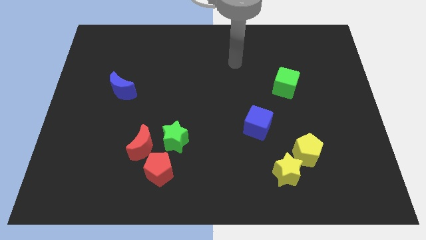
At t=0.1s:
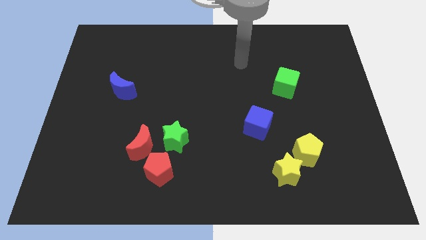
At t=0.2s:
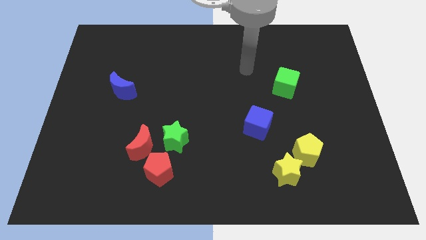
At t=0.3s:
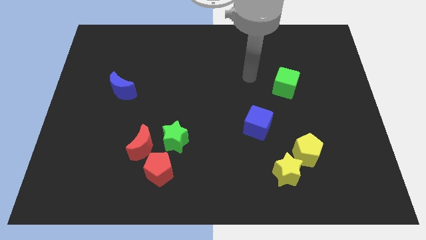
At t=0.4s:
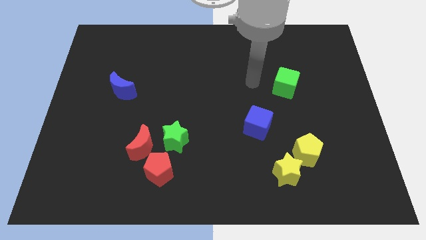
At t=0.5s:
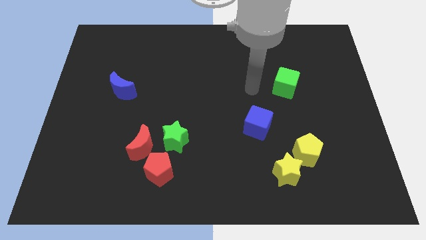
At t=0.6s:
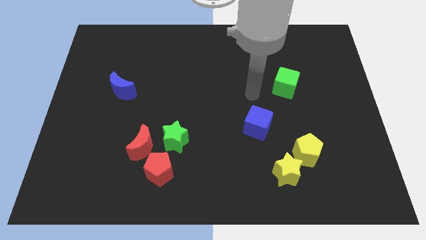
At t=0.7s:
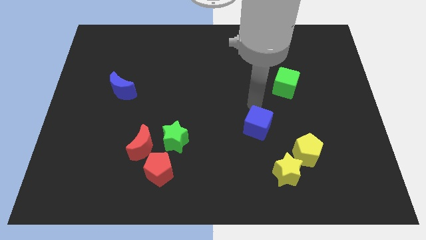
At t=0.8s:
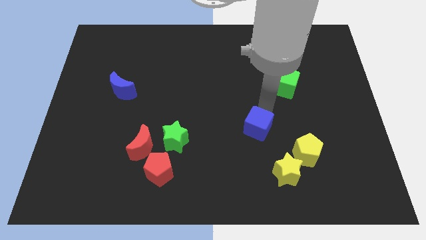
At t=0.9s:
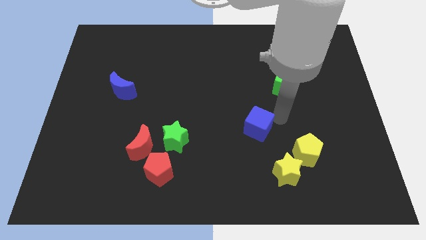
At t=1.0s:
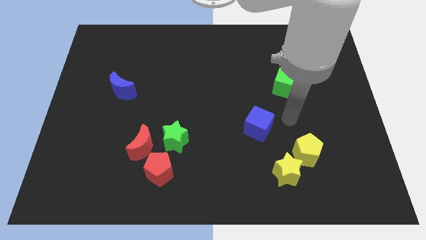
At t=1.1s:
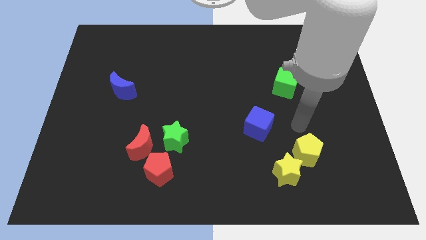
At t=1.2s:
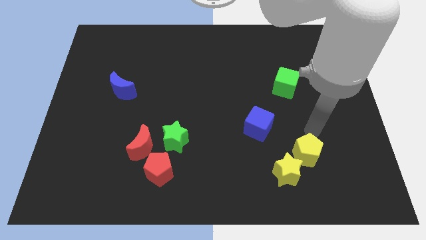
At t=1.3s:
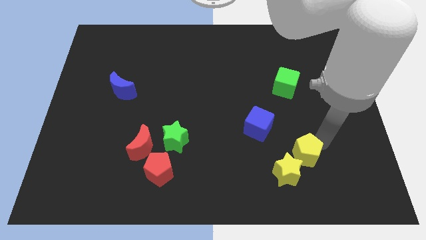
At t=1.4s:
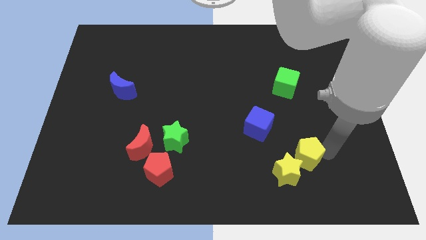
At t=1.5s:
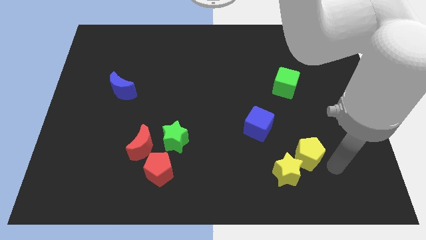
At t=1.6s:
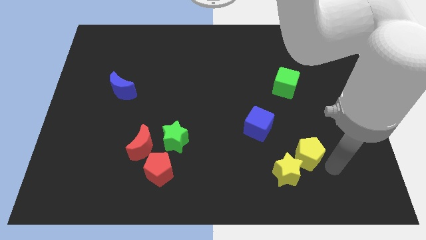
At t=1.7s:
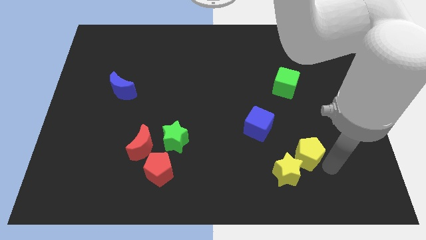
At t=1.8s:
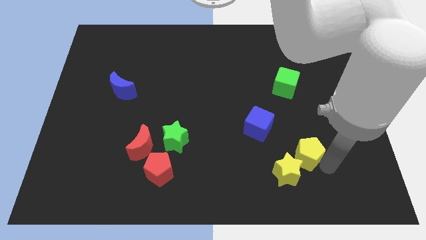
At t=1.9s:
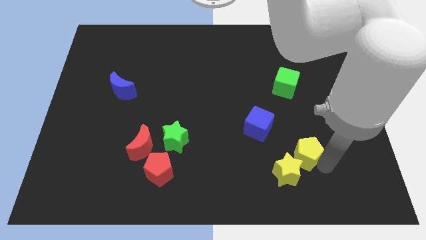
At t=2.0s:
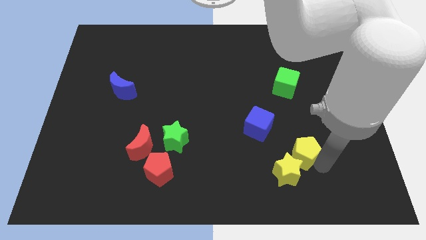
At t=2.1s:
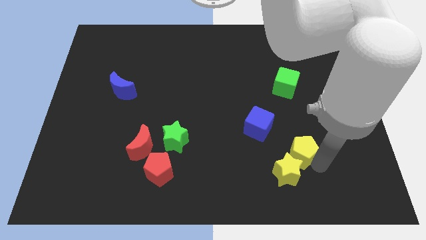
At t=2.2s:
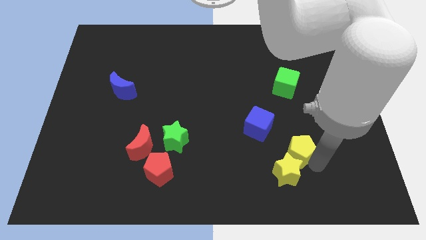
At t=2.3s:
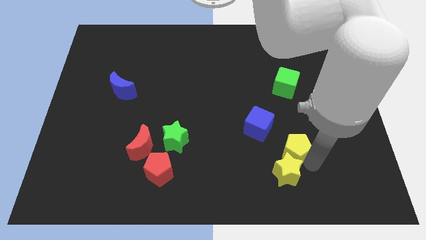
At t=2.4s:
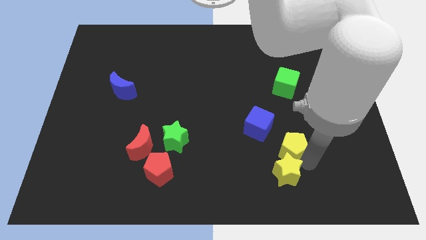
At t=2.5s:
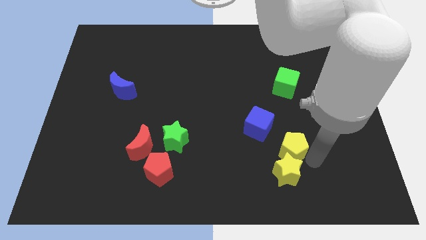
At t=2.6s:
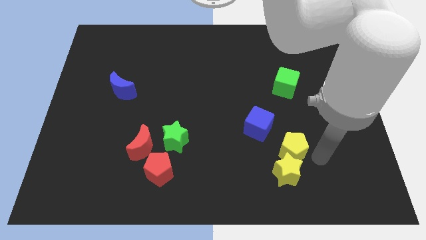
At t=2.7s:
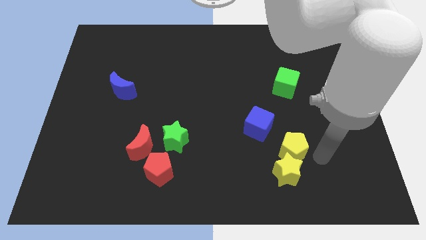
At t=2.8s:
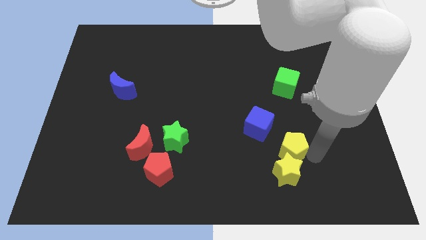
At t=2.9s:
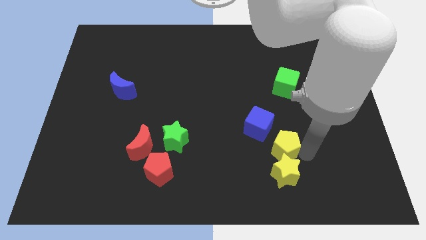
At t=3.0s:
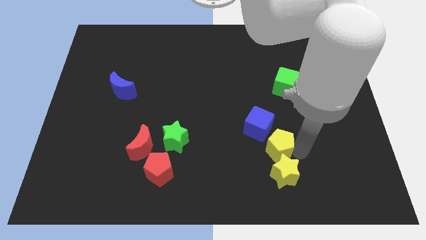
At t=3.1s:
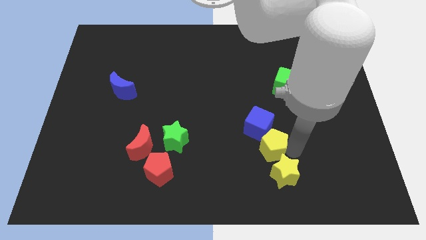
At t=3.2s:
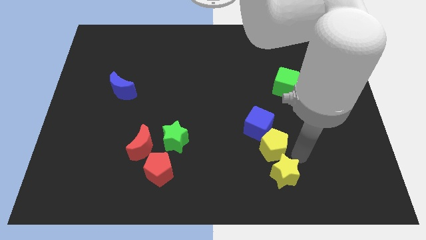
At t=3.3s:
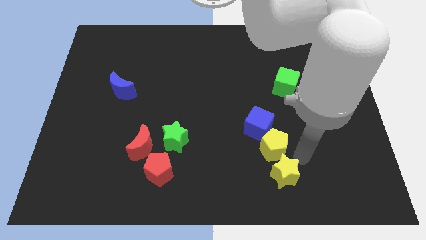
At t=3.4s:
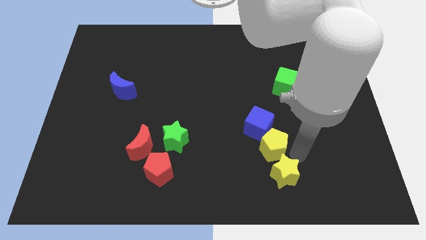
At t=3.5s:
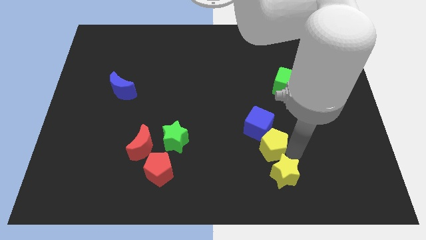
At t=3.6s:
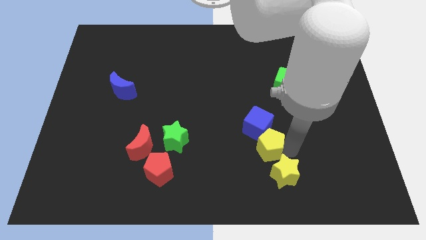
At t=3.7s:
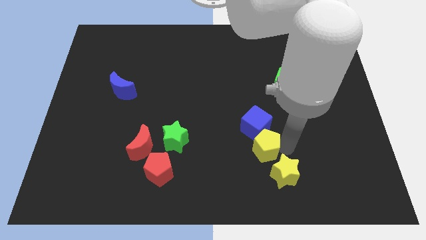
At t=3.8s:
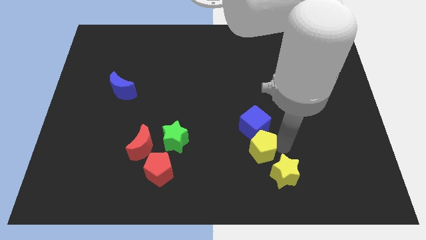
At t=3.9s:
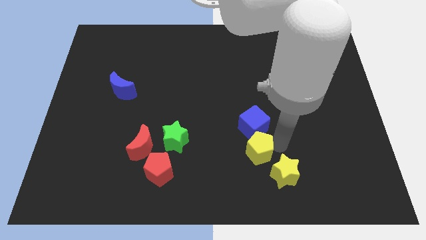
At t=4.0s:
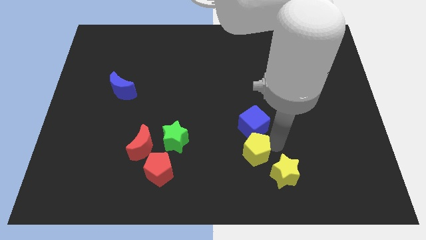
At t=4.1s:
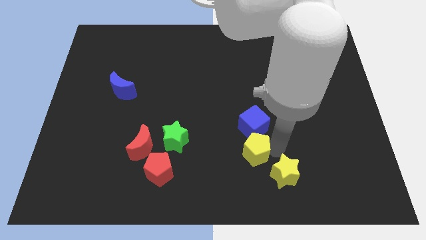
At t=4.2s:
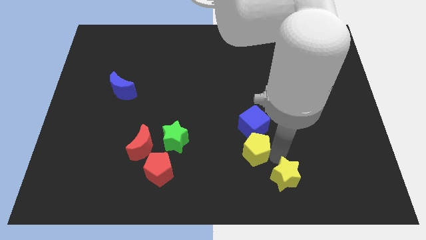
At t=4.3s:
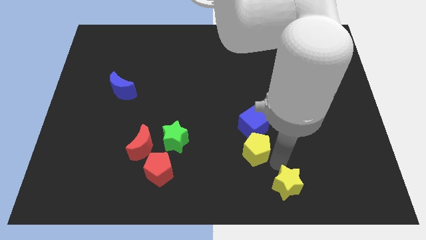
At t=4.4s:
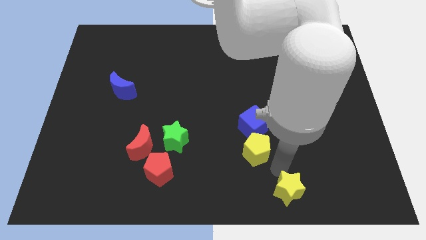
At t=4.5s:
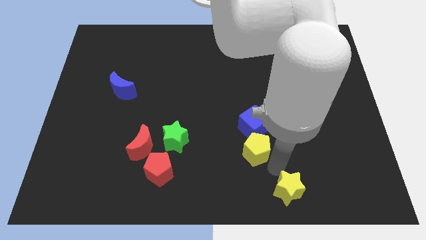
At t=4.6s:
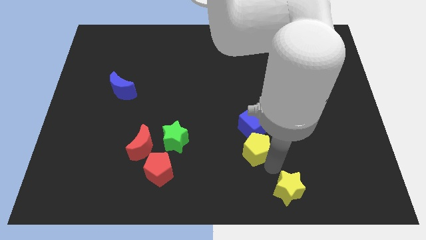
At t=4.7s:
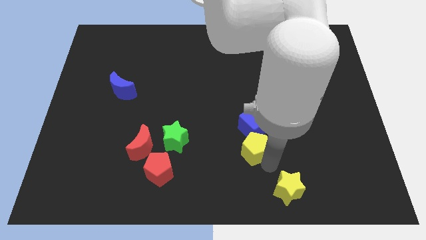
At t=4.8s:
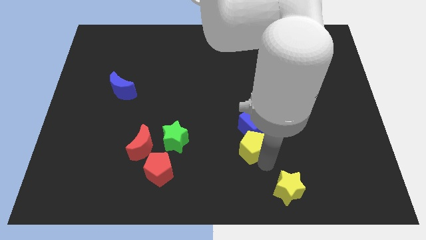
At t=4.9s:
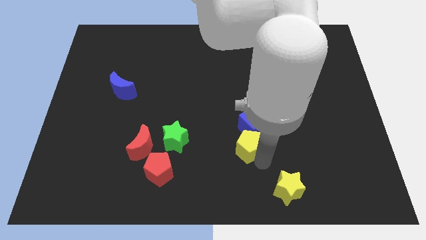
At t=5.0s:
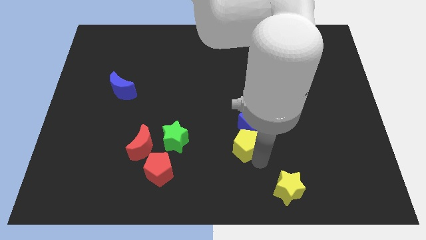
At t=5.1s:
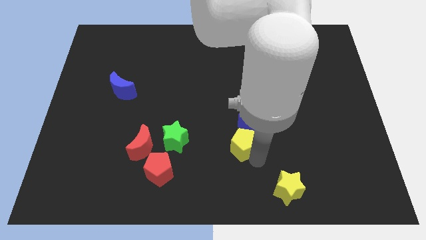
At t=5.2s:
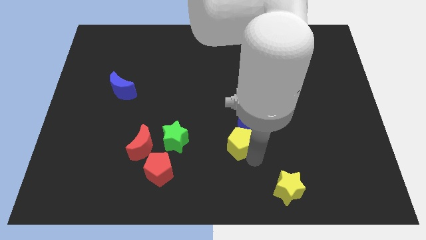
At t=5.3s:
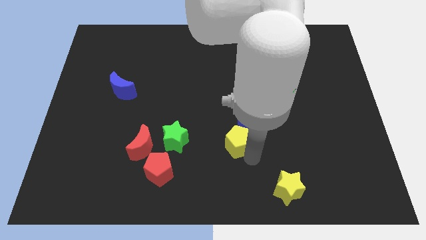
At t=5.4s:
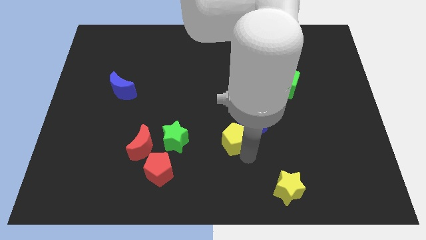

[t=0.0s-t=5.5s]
put the yellow pentagon left of the blue cube

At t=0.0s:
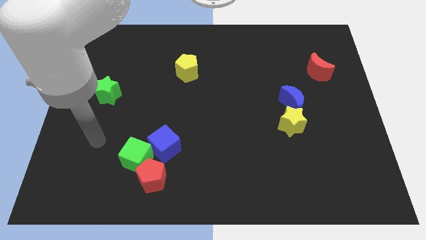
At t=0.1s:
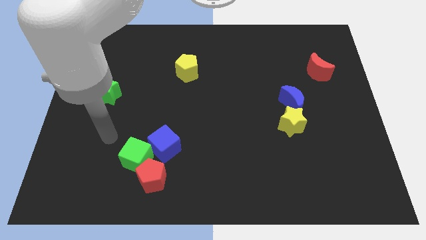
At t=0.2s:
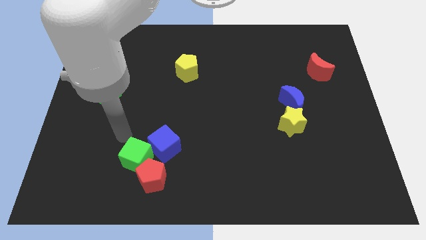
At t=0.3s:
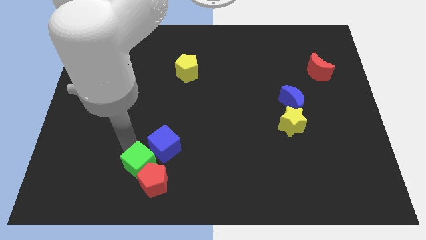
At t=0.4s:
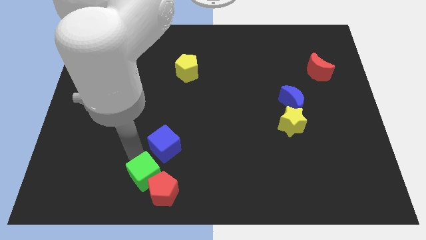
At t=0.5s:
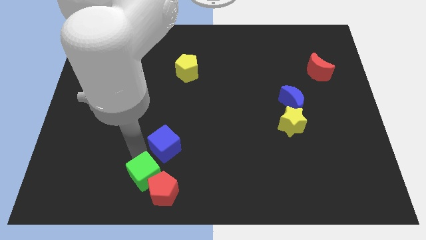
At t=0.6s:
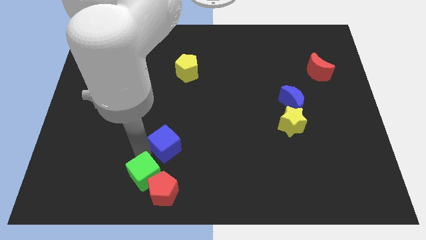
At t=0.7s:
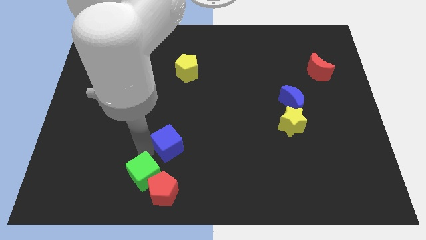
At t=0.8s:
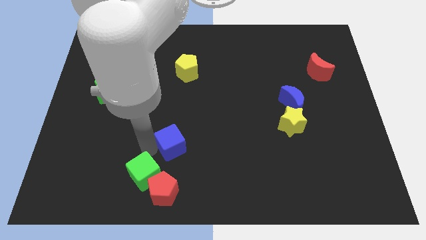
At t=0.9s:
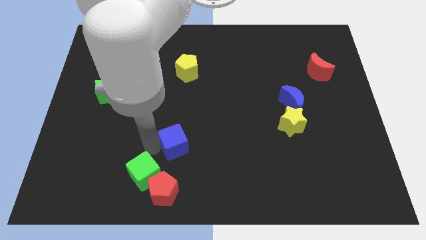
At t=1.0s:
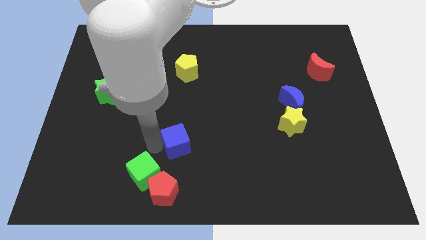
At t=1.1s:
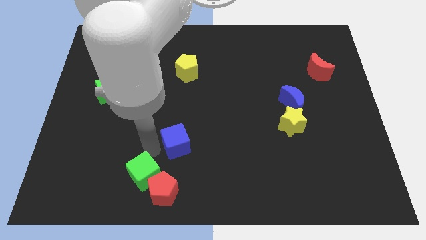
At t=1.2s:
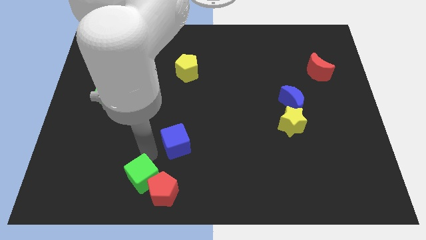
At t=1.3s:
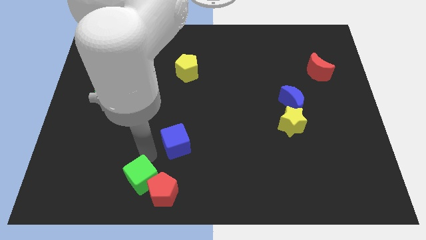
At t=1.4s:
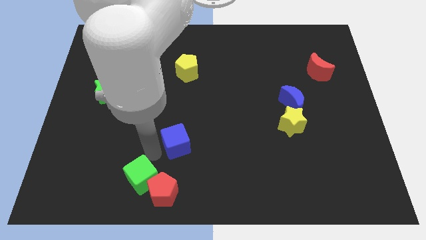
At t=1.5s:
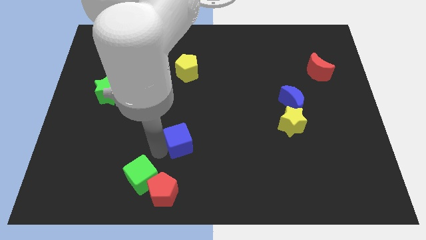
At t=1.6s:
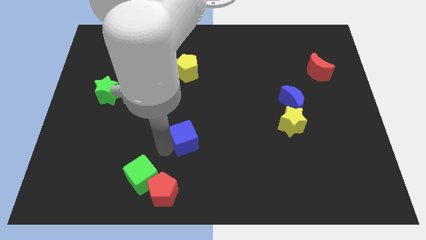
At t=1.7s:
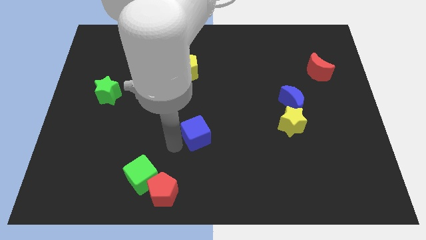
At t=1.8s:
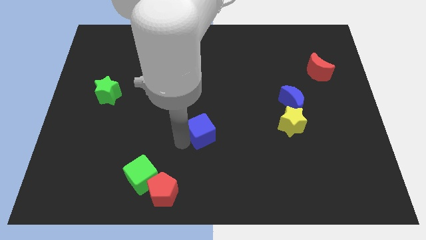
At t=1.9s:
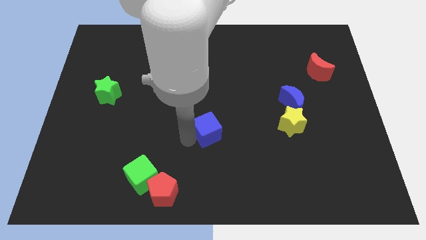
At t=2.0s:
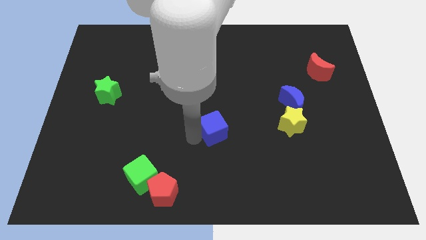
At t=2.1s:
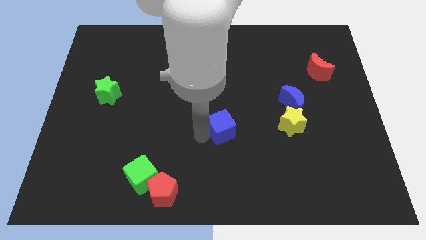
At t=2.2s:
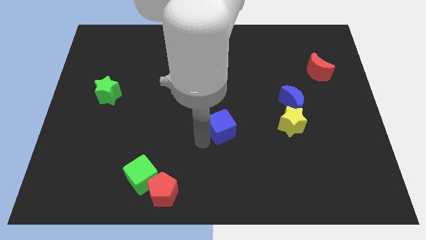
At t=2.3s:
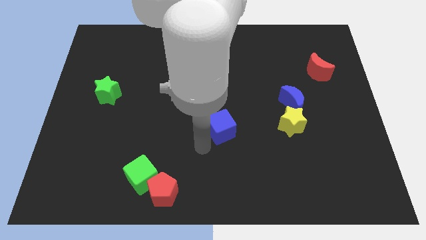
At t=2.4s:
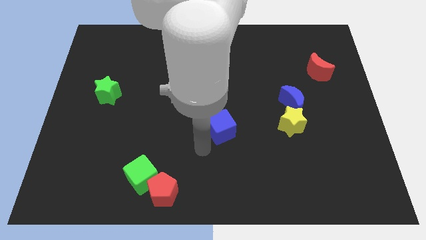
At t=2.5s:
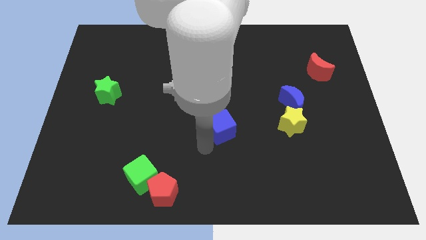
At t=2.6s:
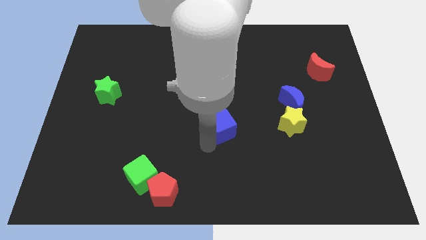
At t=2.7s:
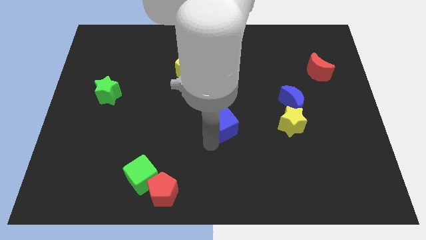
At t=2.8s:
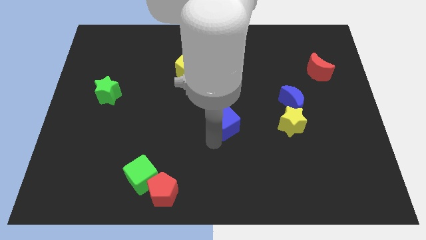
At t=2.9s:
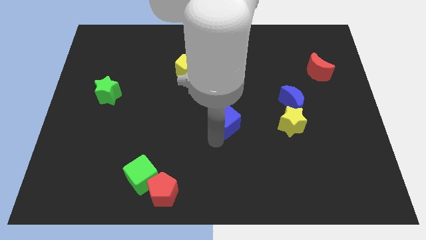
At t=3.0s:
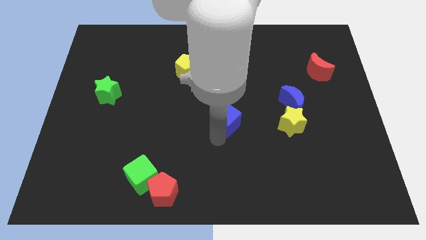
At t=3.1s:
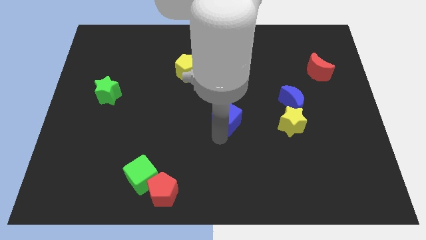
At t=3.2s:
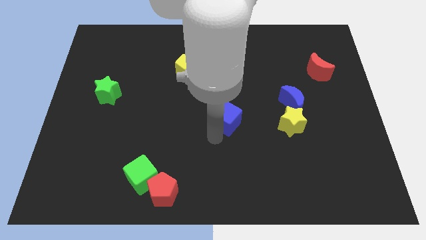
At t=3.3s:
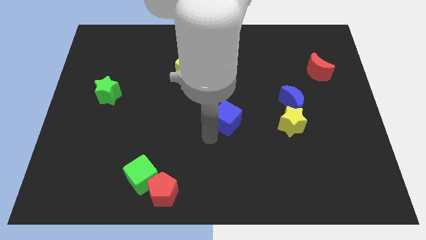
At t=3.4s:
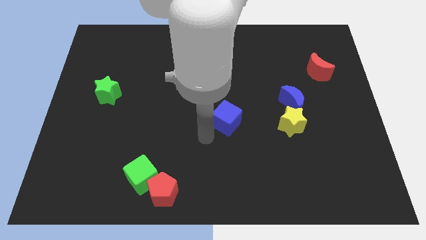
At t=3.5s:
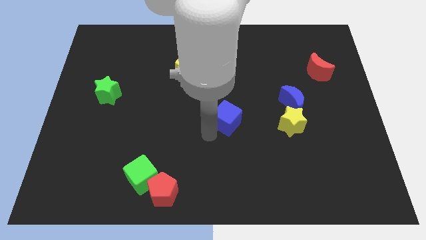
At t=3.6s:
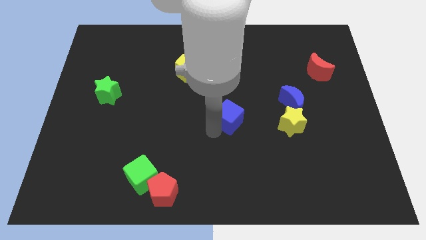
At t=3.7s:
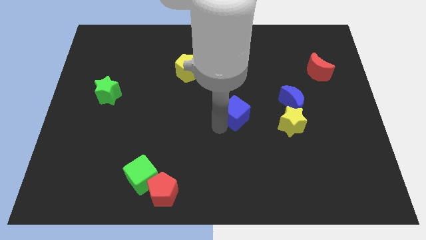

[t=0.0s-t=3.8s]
put the blue cube to the left of the blue moon
